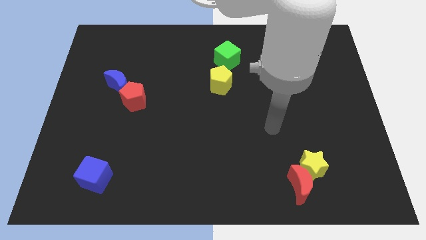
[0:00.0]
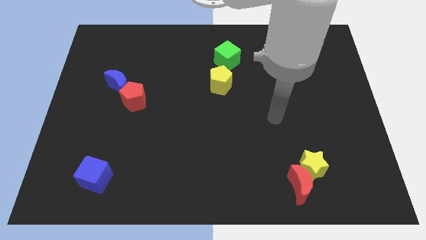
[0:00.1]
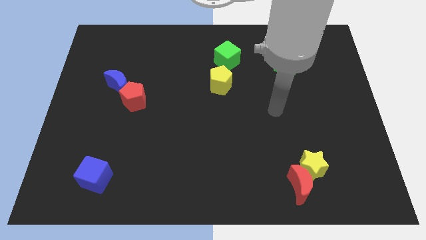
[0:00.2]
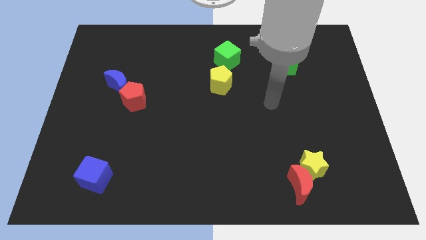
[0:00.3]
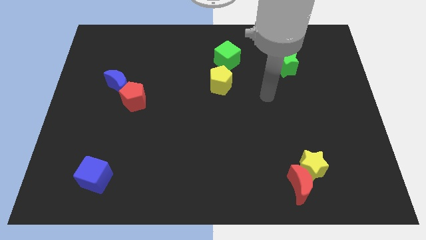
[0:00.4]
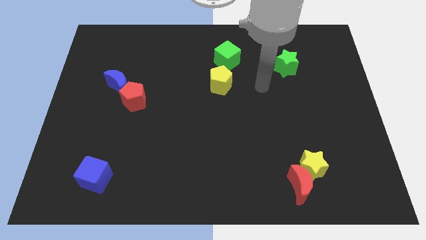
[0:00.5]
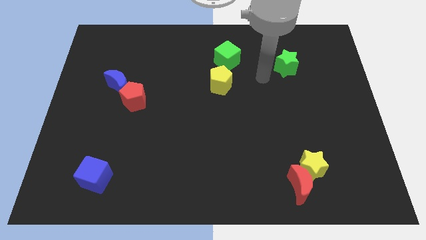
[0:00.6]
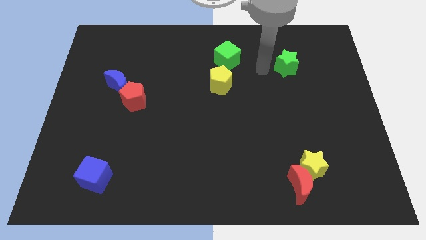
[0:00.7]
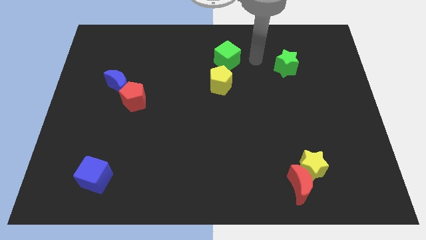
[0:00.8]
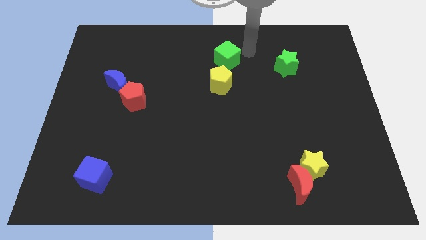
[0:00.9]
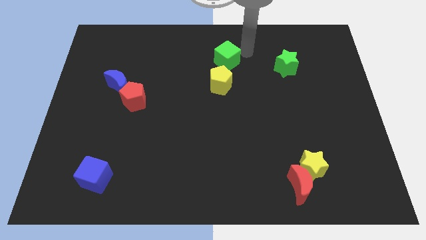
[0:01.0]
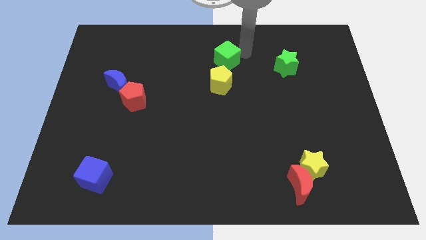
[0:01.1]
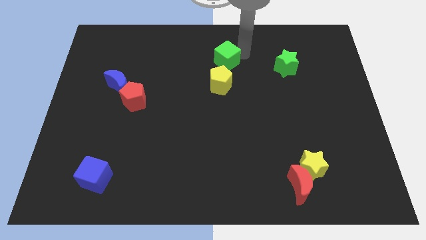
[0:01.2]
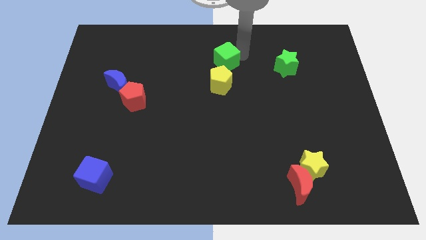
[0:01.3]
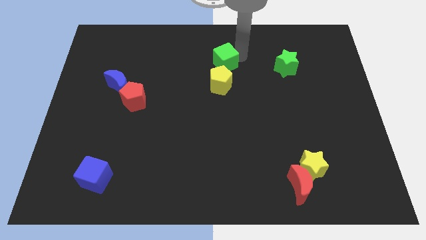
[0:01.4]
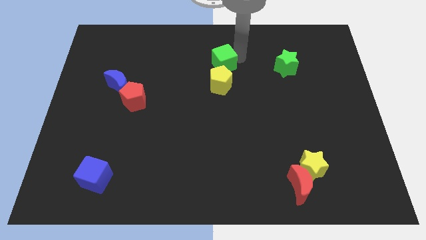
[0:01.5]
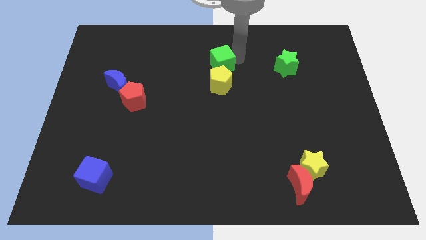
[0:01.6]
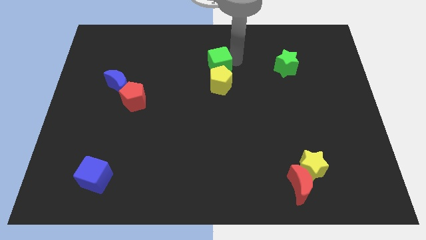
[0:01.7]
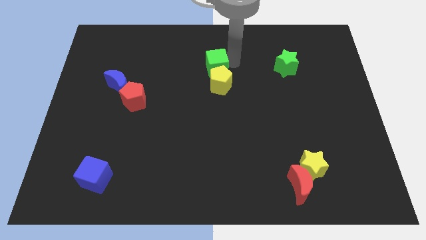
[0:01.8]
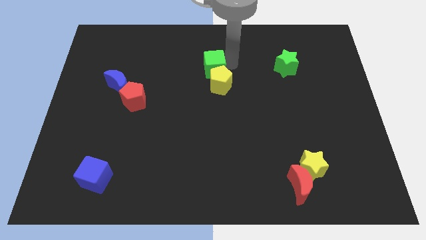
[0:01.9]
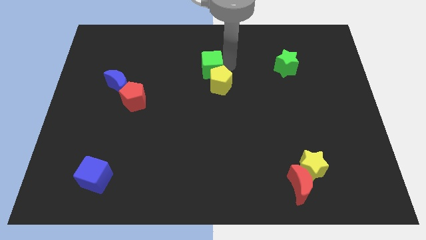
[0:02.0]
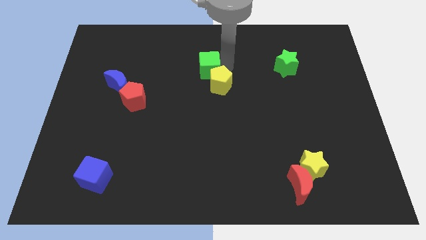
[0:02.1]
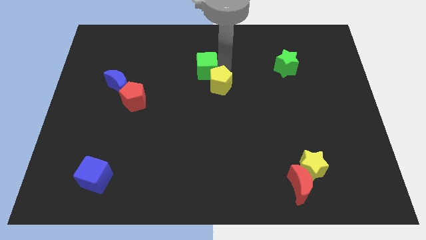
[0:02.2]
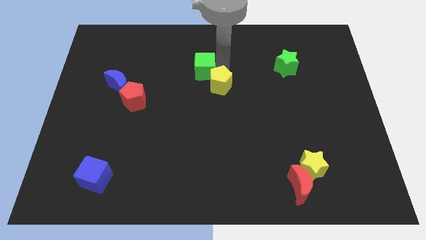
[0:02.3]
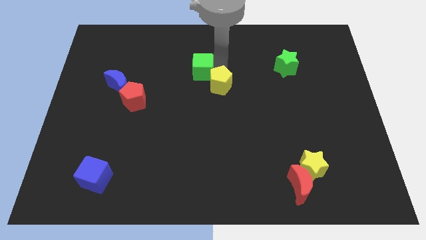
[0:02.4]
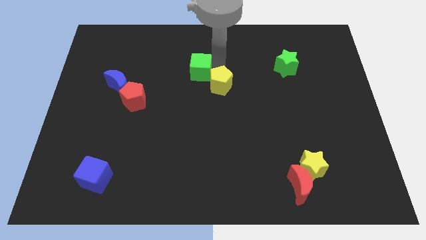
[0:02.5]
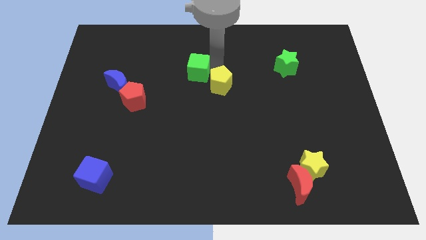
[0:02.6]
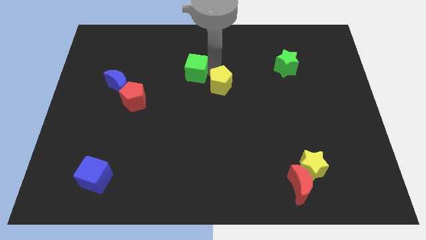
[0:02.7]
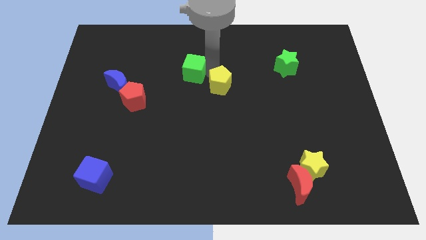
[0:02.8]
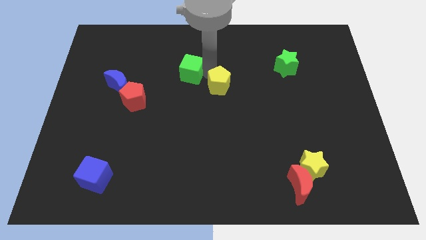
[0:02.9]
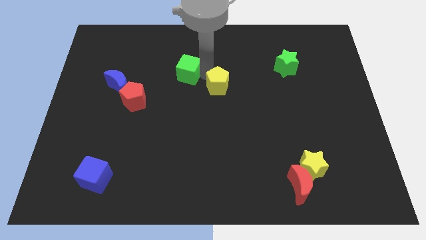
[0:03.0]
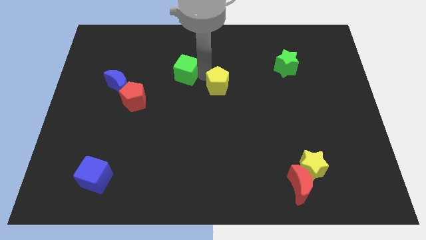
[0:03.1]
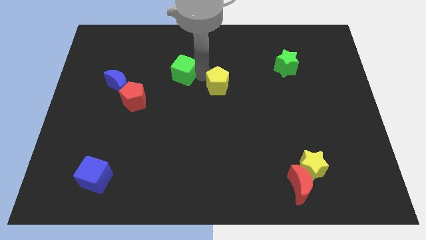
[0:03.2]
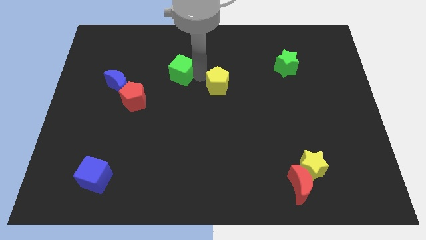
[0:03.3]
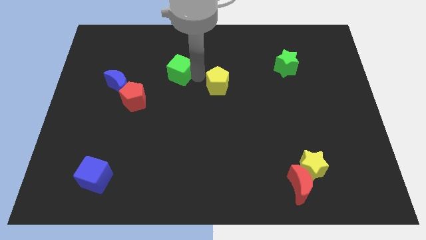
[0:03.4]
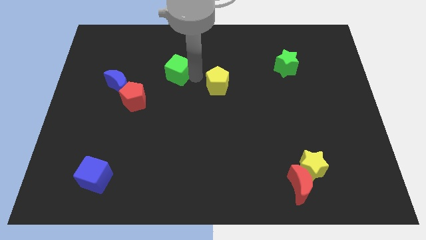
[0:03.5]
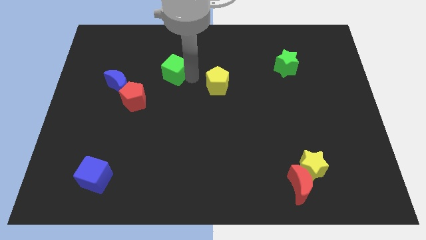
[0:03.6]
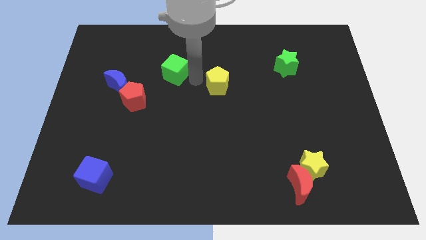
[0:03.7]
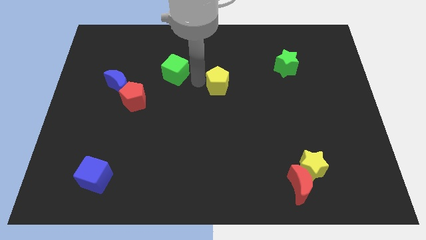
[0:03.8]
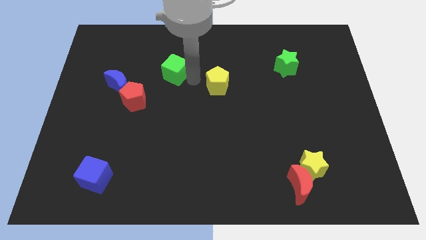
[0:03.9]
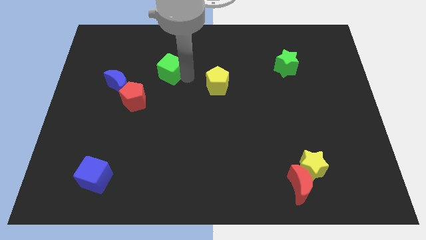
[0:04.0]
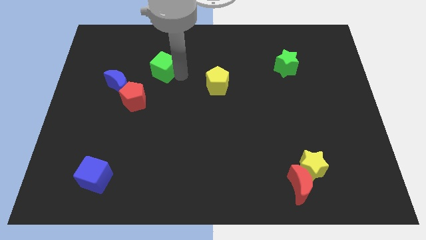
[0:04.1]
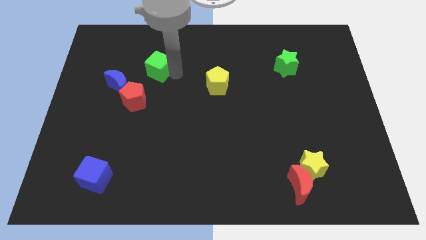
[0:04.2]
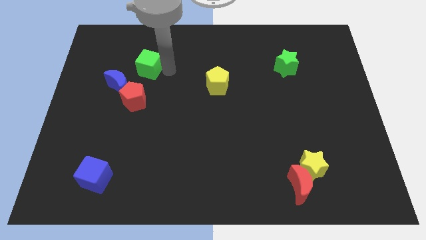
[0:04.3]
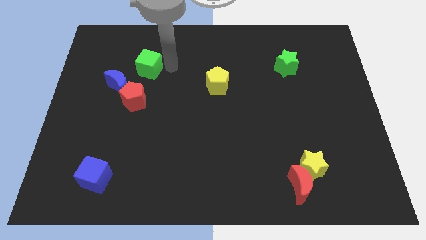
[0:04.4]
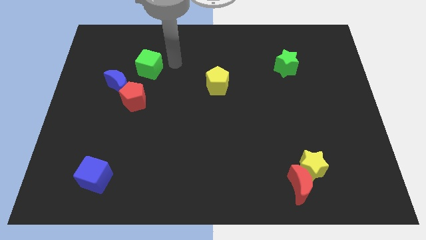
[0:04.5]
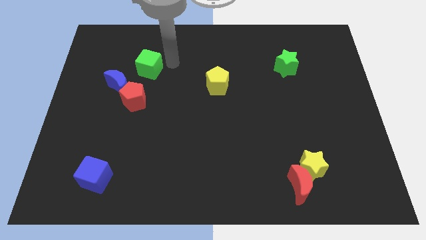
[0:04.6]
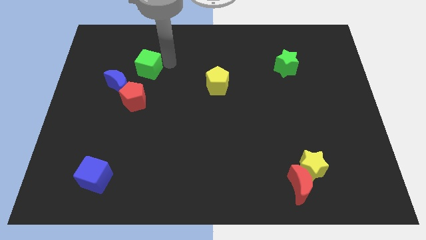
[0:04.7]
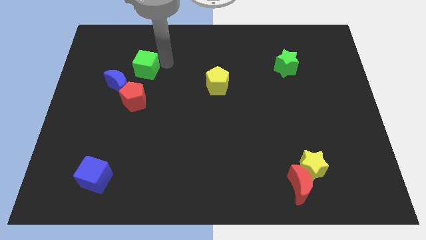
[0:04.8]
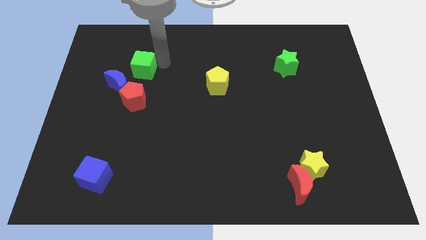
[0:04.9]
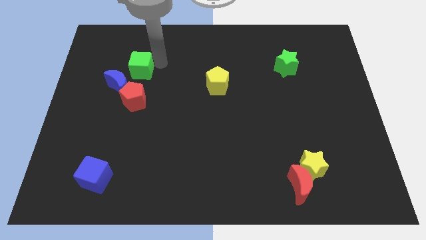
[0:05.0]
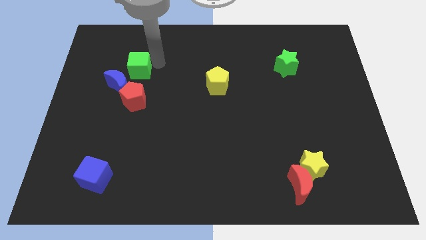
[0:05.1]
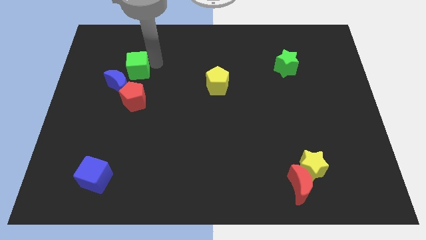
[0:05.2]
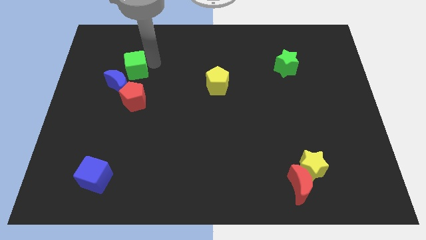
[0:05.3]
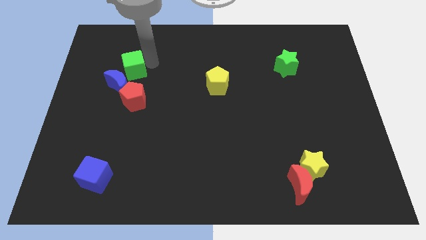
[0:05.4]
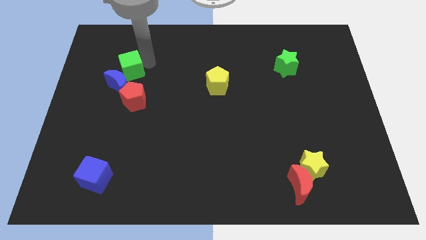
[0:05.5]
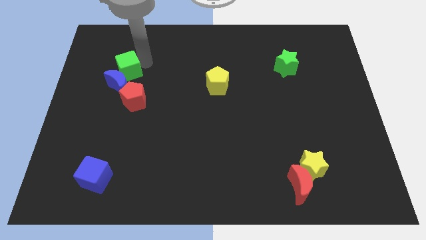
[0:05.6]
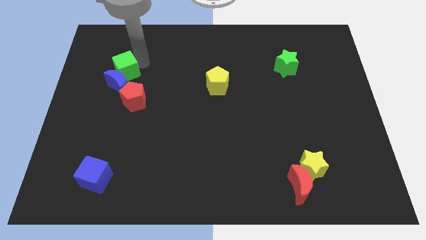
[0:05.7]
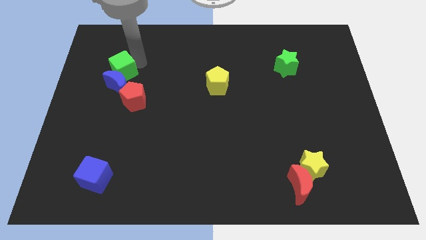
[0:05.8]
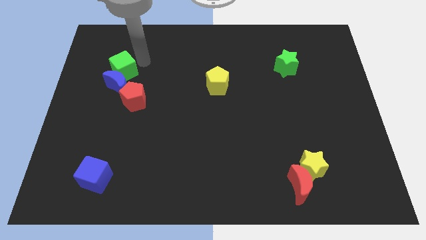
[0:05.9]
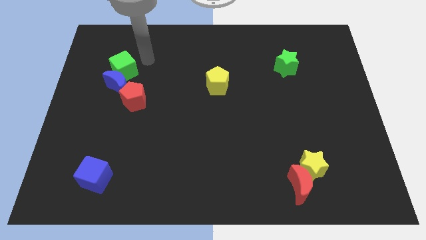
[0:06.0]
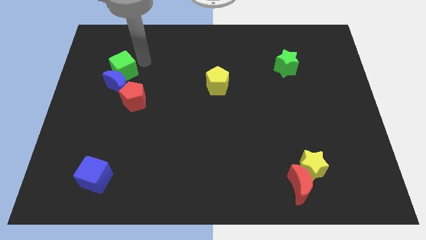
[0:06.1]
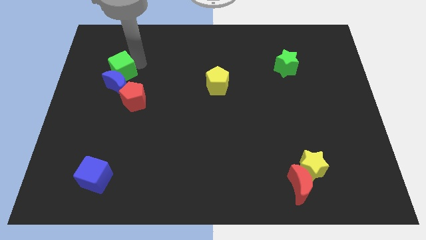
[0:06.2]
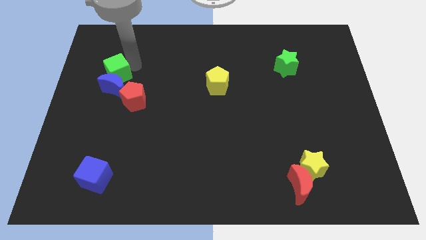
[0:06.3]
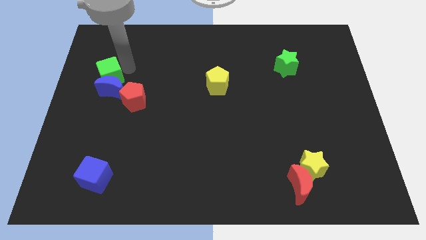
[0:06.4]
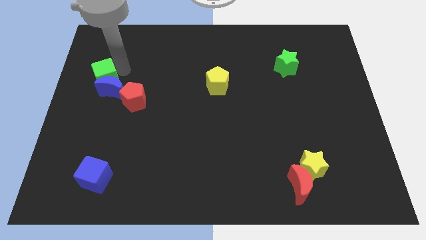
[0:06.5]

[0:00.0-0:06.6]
put the green cube to the left side
